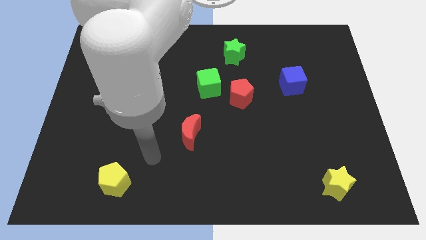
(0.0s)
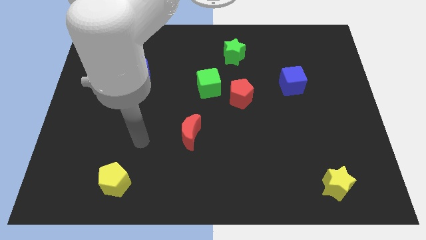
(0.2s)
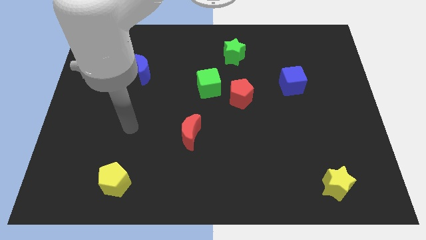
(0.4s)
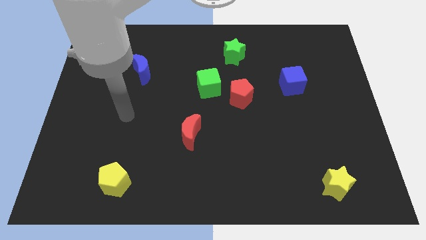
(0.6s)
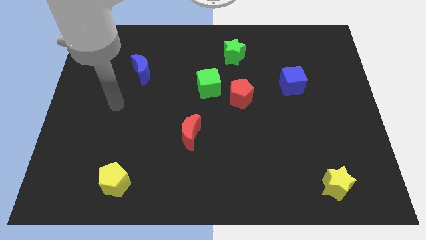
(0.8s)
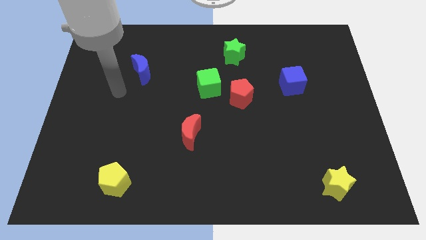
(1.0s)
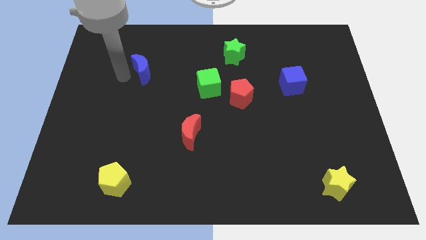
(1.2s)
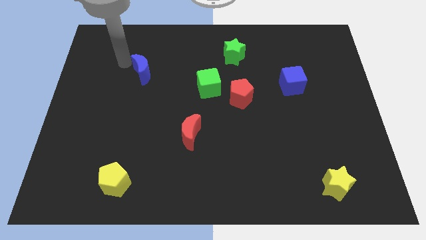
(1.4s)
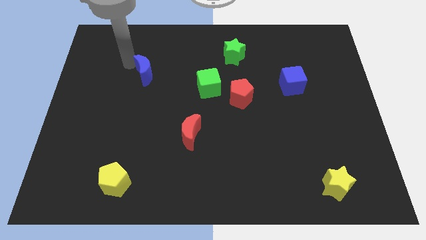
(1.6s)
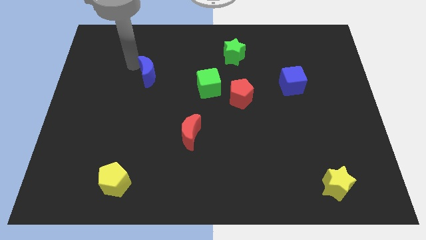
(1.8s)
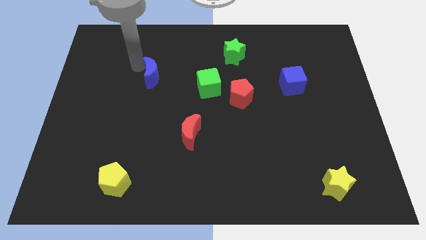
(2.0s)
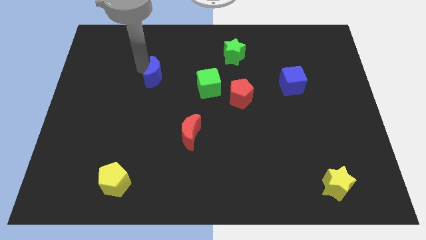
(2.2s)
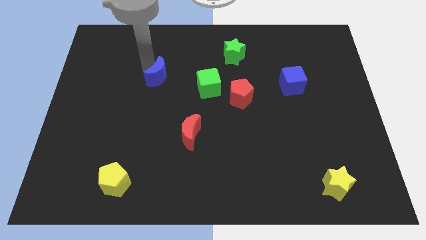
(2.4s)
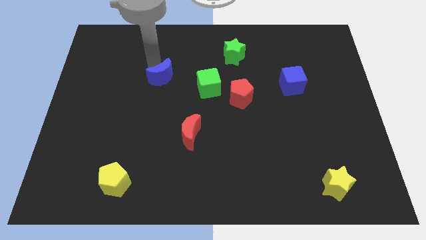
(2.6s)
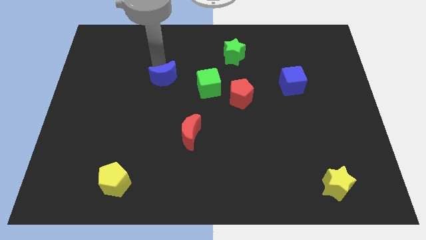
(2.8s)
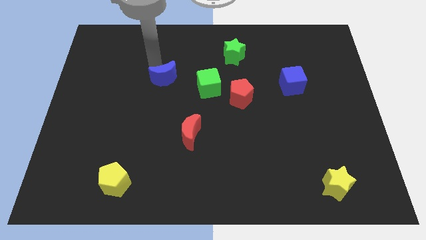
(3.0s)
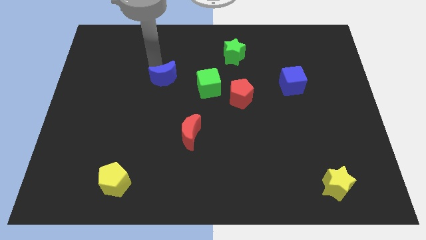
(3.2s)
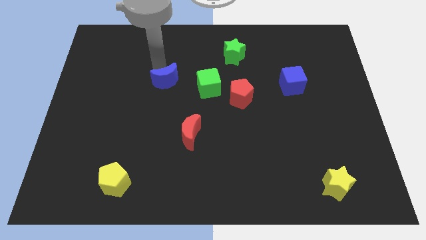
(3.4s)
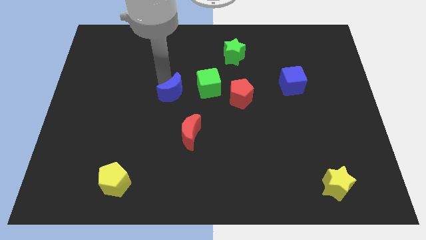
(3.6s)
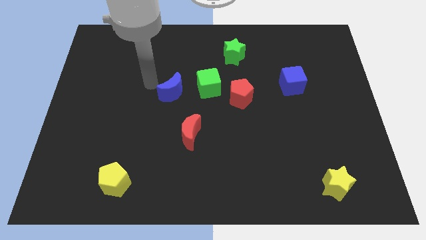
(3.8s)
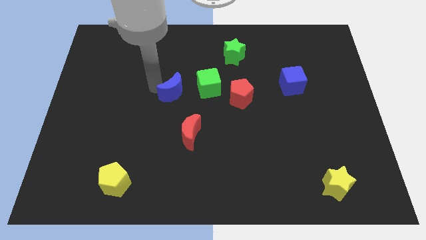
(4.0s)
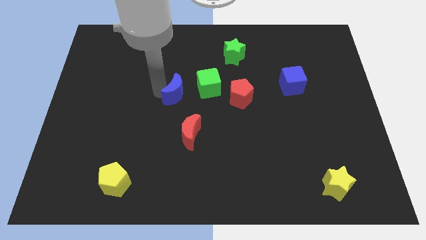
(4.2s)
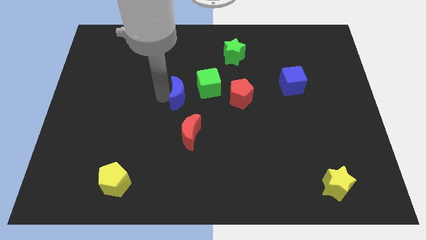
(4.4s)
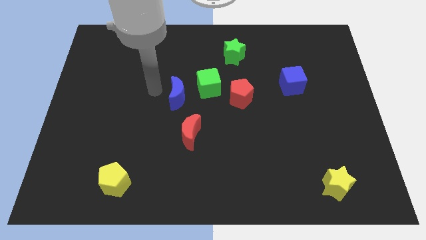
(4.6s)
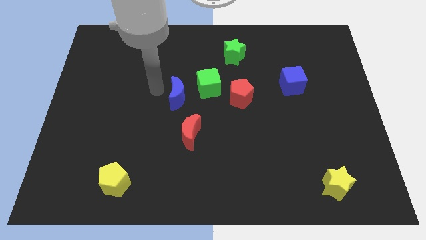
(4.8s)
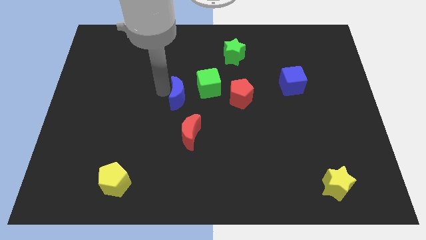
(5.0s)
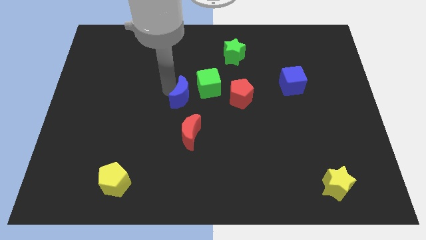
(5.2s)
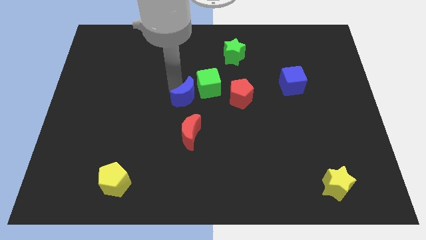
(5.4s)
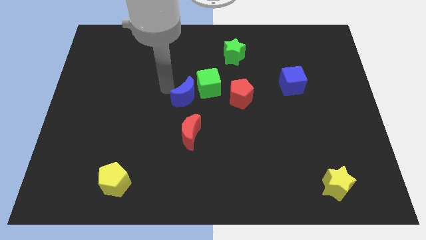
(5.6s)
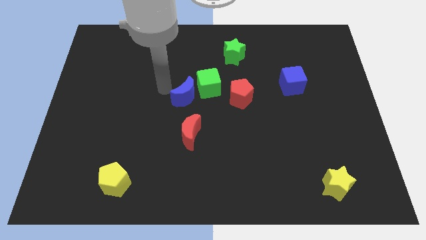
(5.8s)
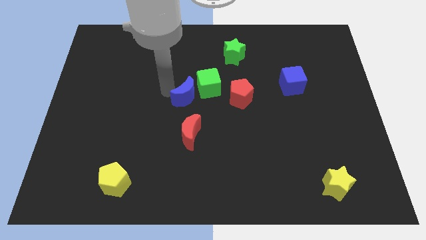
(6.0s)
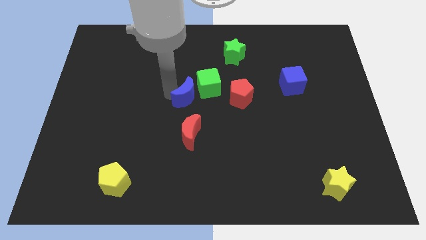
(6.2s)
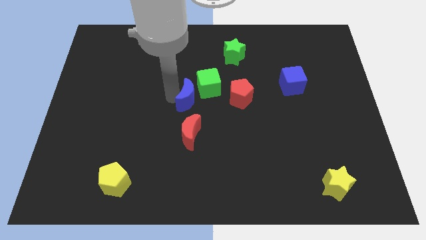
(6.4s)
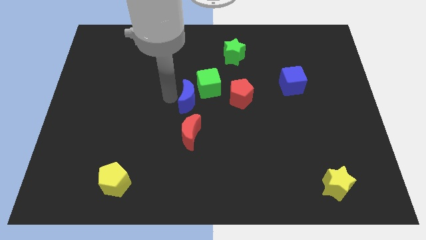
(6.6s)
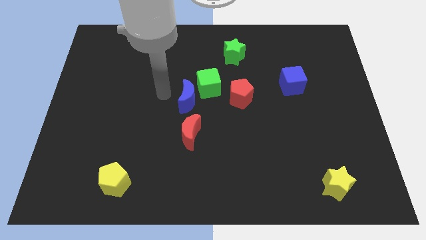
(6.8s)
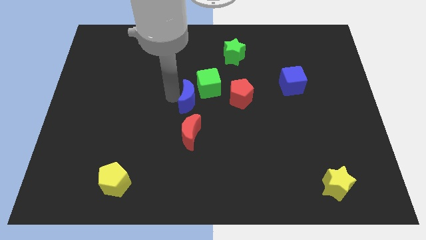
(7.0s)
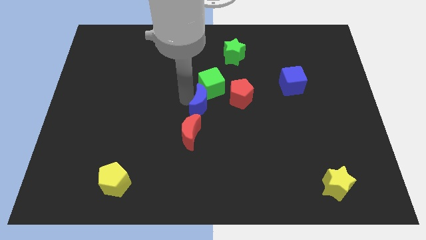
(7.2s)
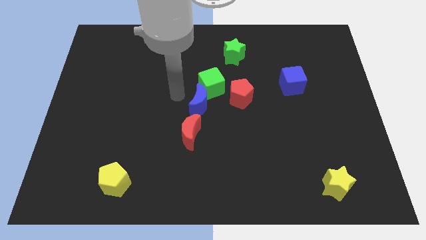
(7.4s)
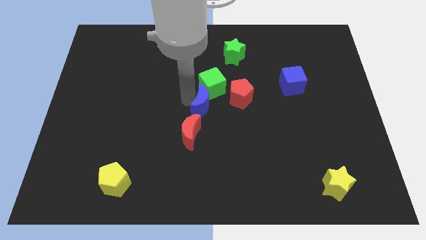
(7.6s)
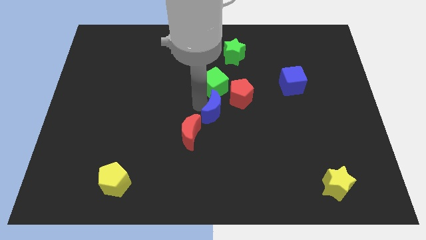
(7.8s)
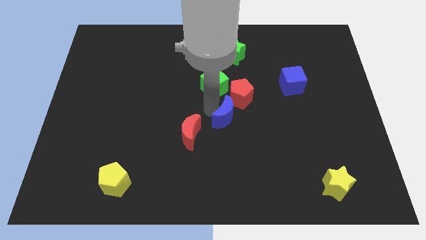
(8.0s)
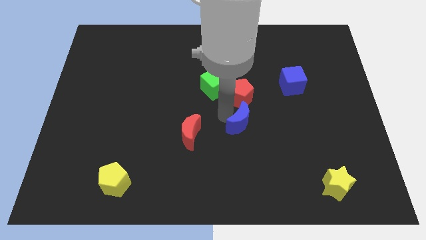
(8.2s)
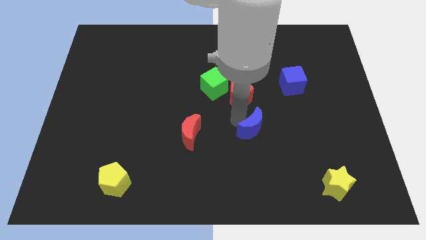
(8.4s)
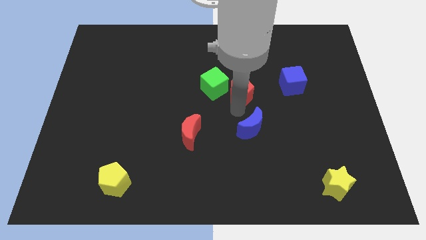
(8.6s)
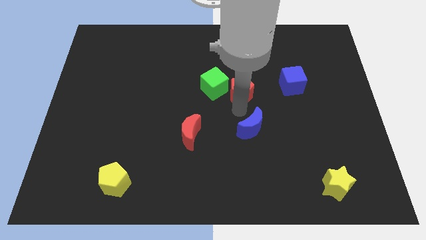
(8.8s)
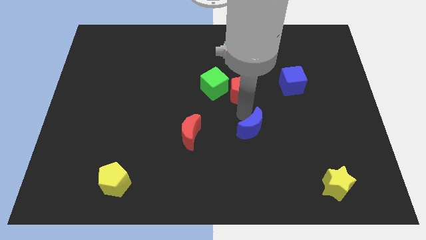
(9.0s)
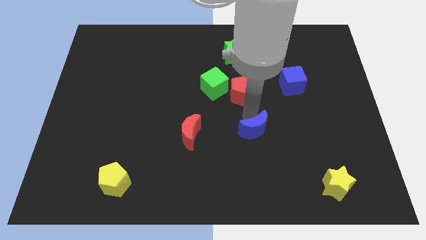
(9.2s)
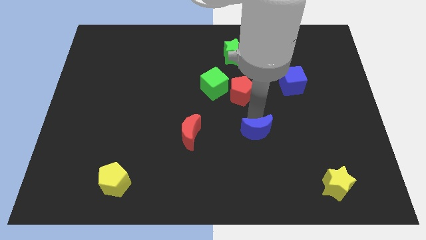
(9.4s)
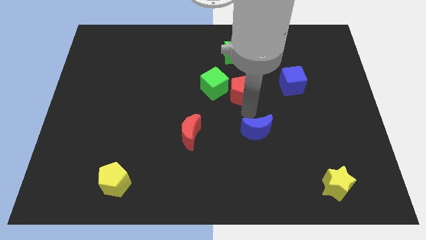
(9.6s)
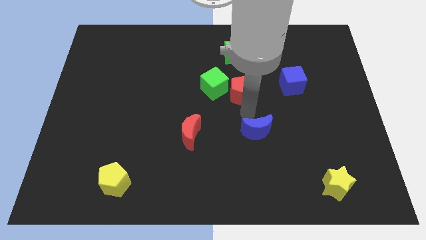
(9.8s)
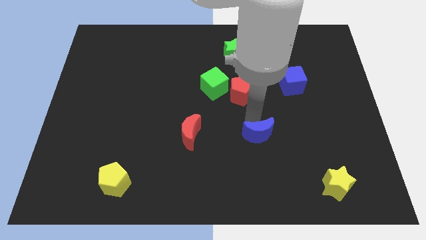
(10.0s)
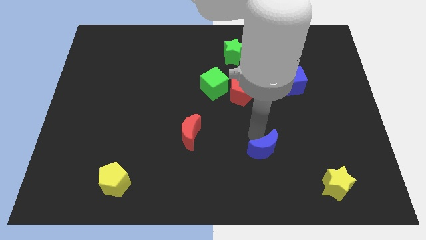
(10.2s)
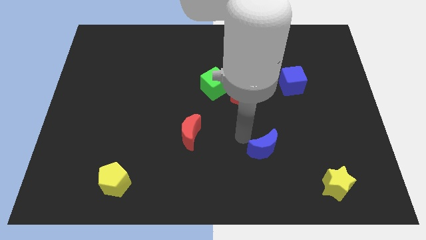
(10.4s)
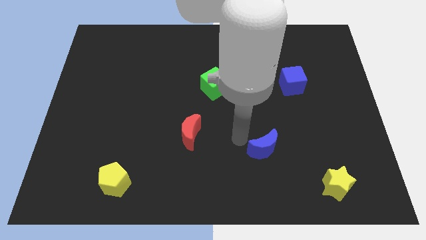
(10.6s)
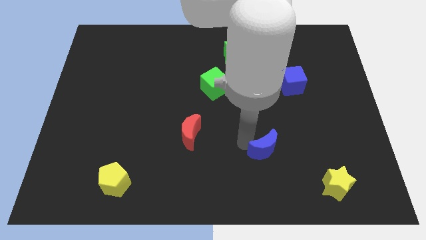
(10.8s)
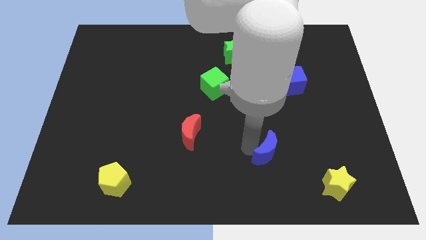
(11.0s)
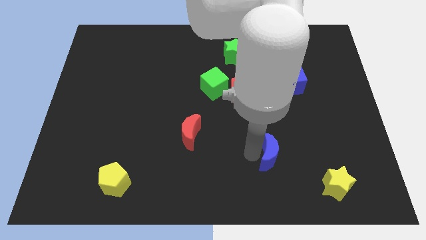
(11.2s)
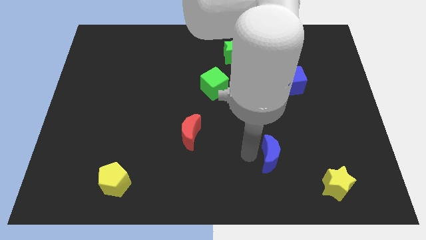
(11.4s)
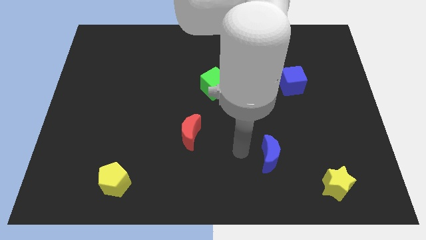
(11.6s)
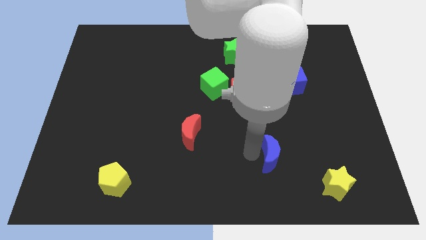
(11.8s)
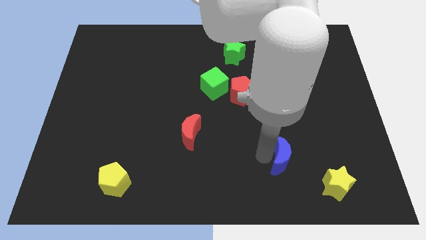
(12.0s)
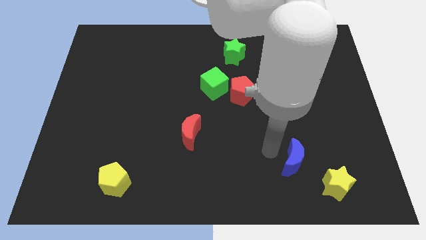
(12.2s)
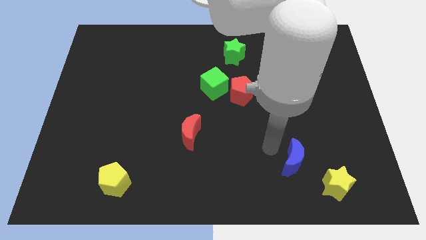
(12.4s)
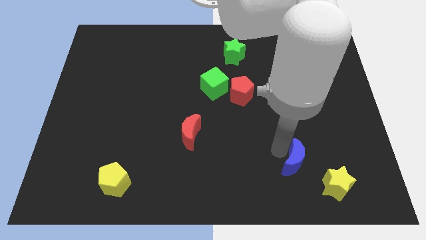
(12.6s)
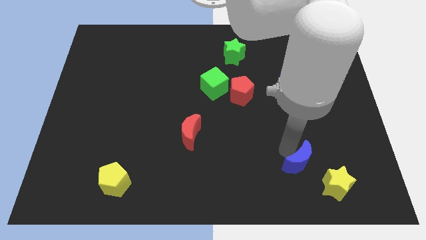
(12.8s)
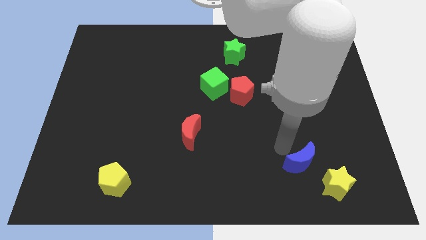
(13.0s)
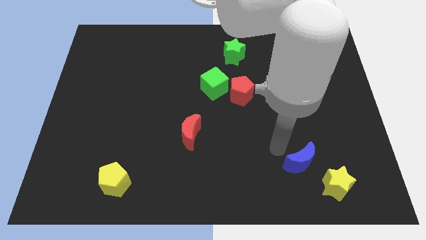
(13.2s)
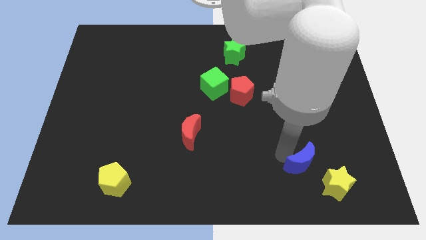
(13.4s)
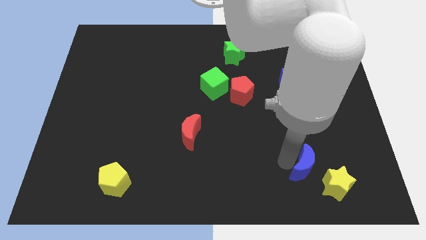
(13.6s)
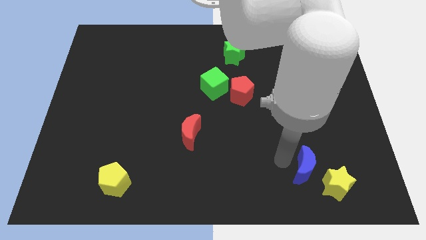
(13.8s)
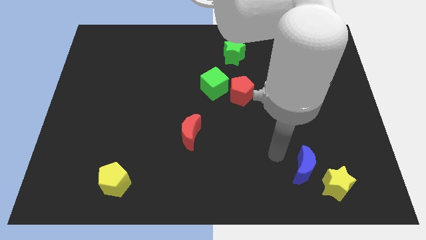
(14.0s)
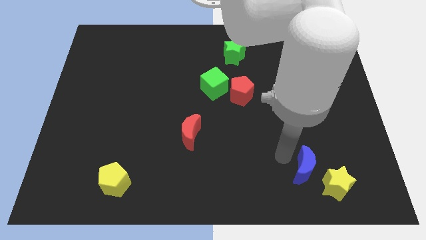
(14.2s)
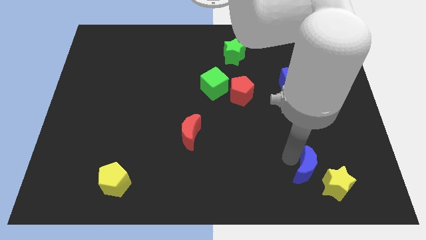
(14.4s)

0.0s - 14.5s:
put the blue moon towards the yellow star
